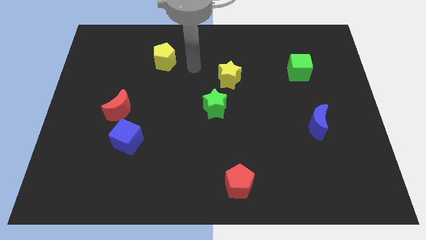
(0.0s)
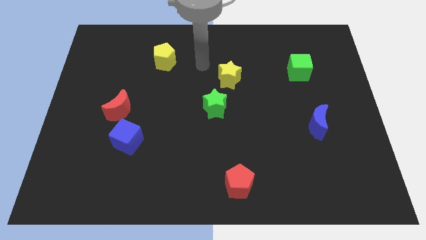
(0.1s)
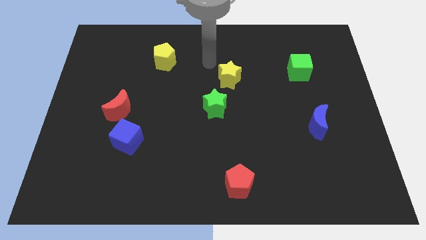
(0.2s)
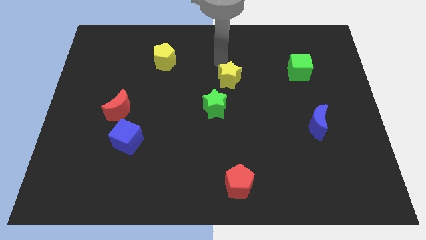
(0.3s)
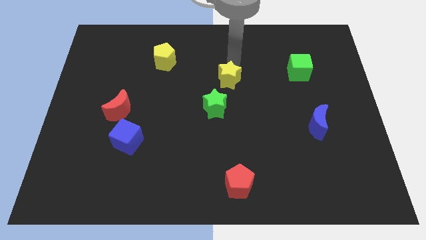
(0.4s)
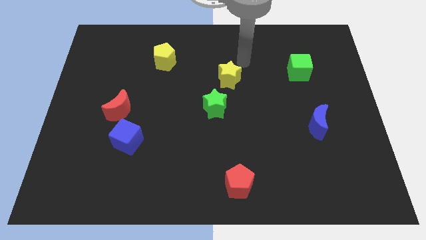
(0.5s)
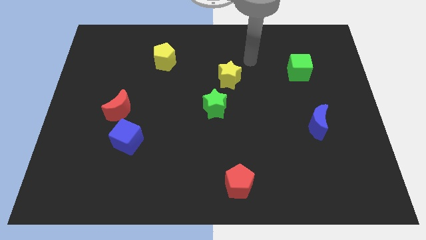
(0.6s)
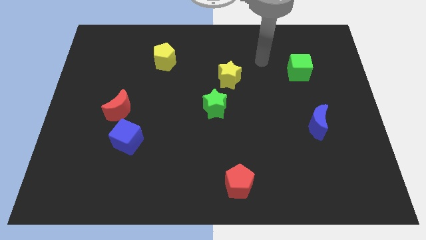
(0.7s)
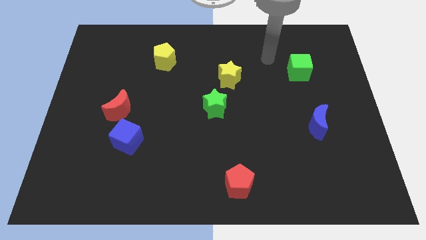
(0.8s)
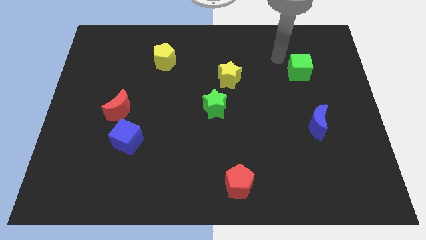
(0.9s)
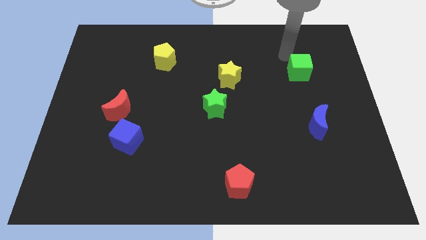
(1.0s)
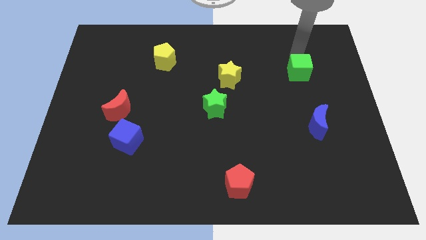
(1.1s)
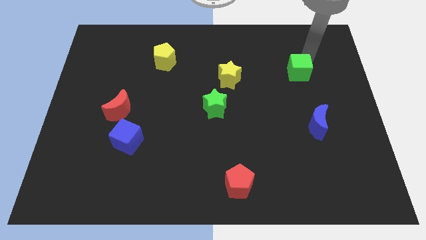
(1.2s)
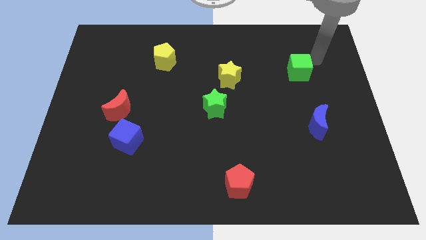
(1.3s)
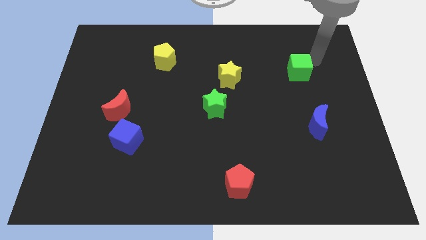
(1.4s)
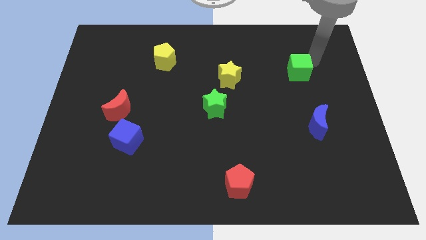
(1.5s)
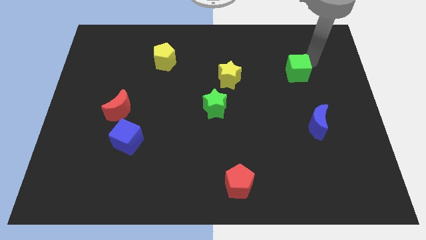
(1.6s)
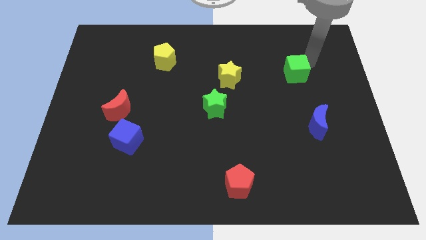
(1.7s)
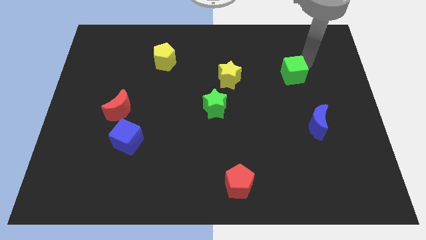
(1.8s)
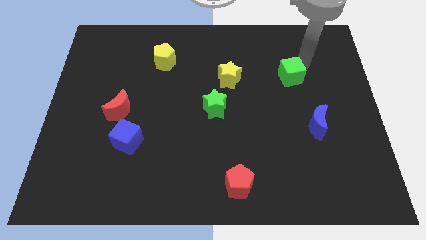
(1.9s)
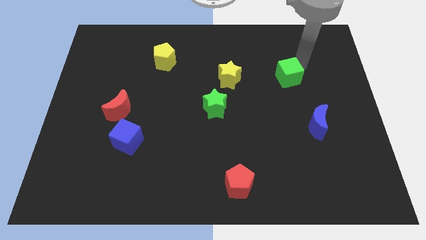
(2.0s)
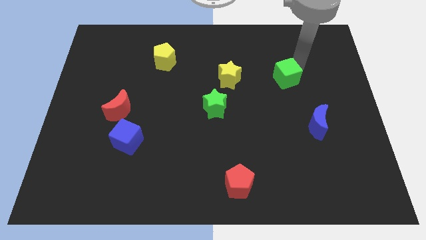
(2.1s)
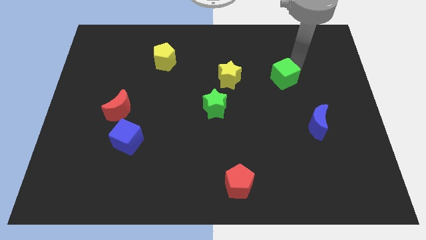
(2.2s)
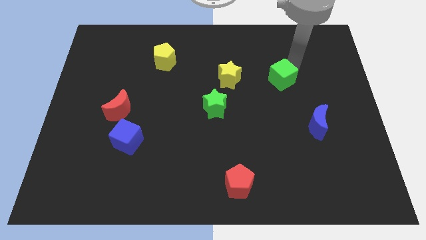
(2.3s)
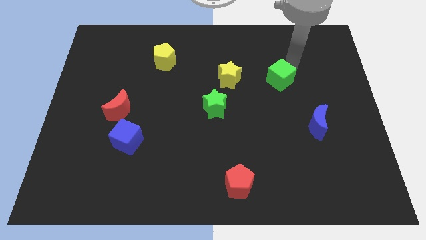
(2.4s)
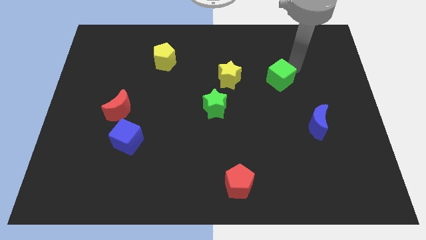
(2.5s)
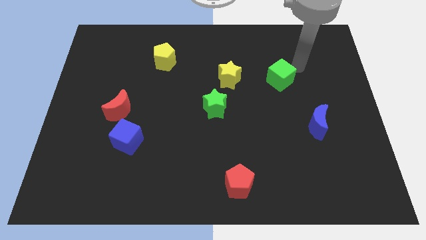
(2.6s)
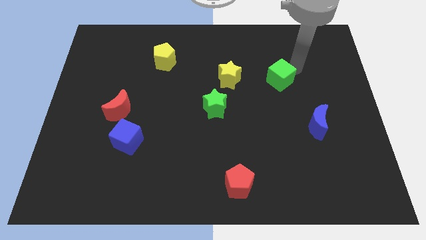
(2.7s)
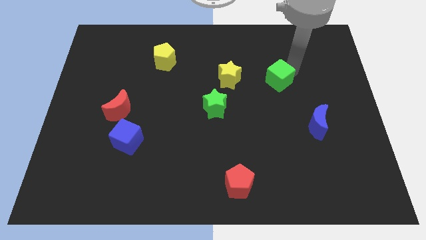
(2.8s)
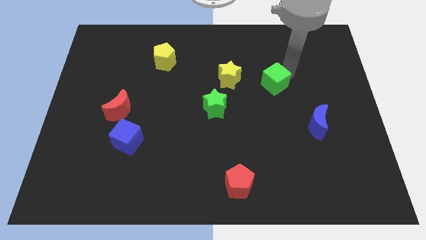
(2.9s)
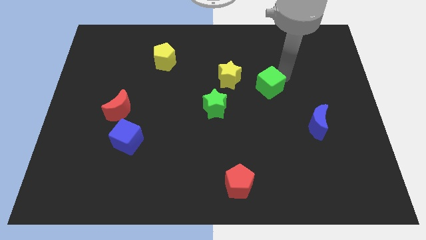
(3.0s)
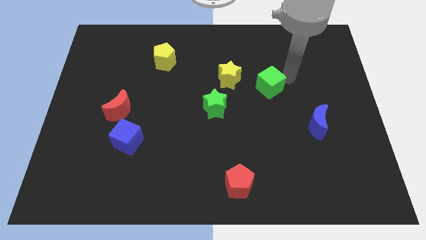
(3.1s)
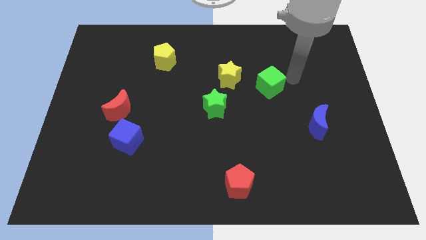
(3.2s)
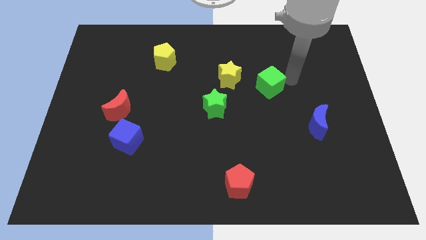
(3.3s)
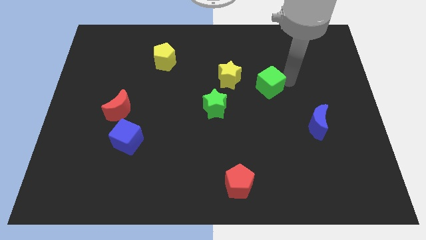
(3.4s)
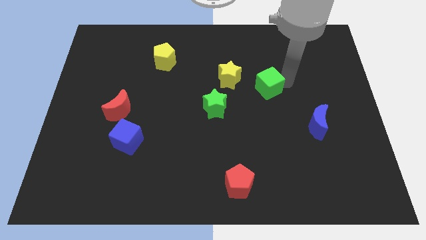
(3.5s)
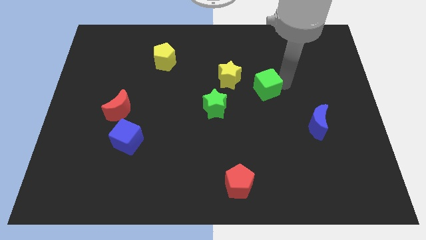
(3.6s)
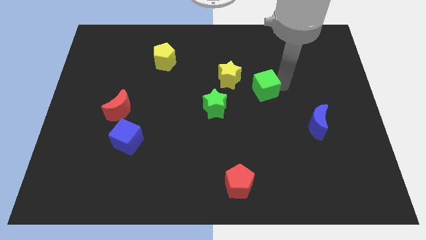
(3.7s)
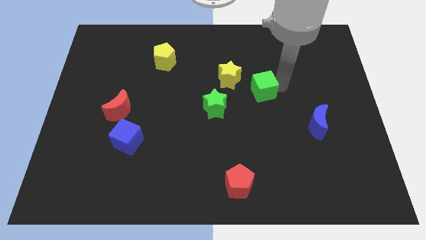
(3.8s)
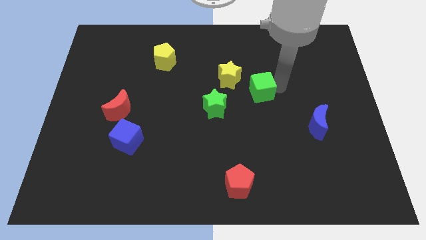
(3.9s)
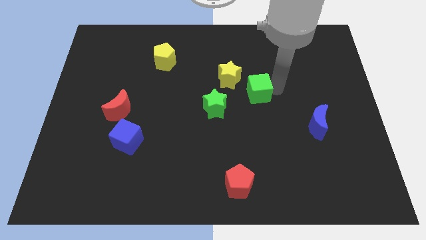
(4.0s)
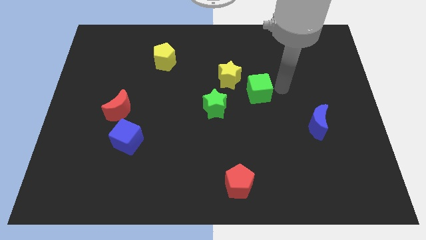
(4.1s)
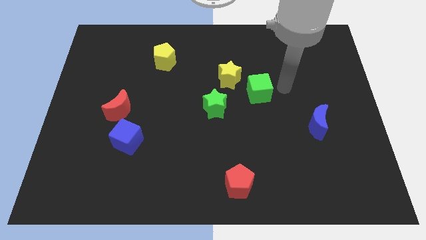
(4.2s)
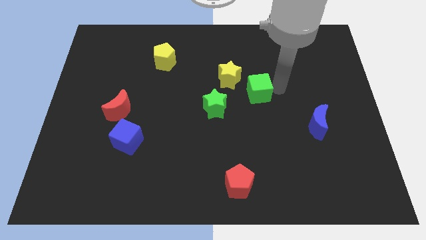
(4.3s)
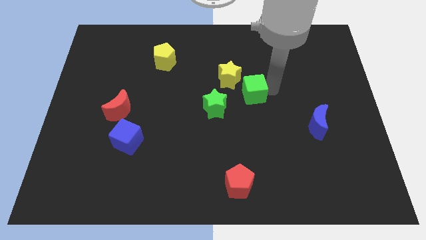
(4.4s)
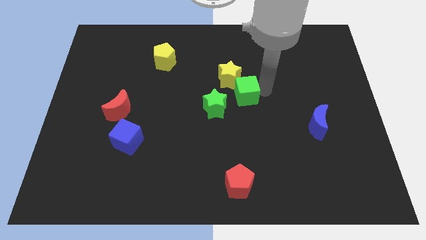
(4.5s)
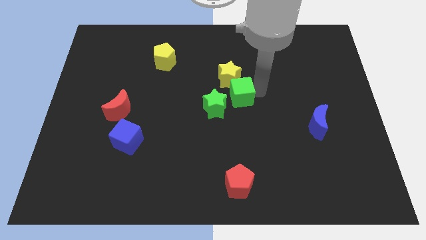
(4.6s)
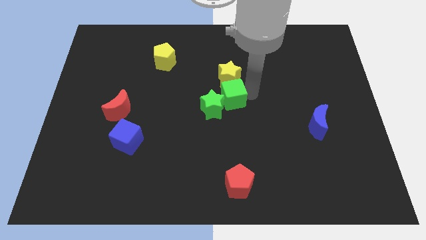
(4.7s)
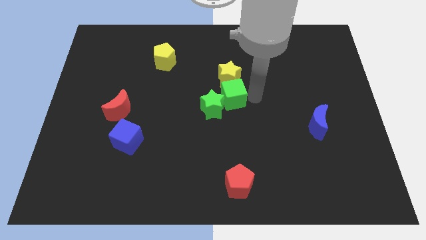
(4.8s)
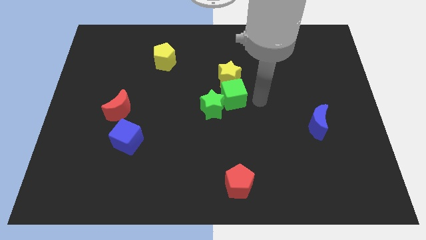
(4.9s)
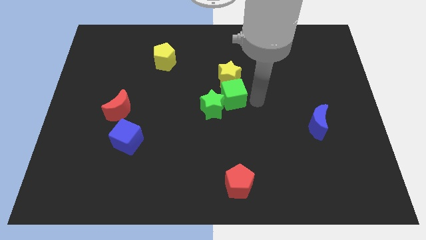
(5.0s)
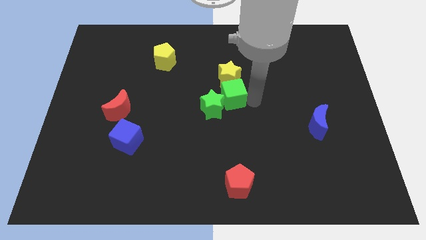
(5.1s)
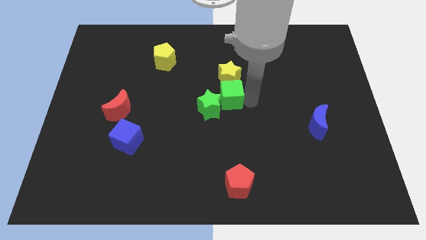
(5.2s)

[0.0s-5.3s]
slide the green cube diagonally down and to the left of the yellow star
